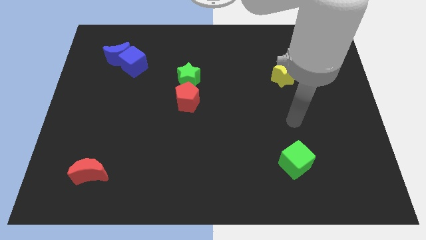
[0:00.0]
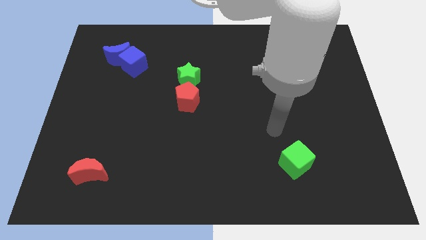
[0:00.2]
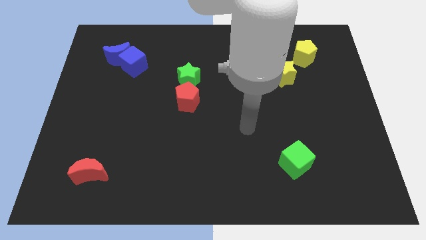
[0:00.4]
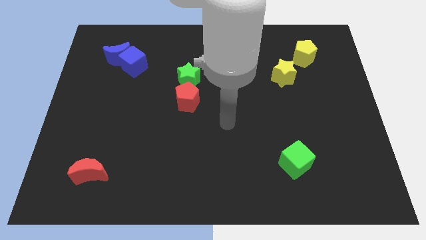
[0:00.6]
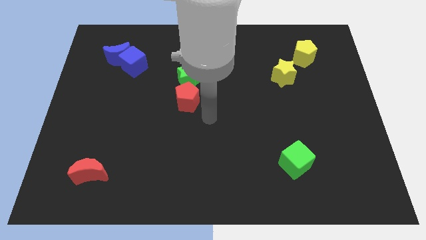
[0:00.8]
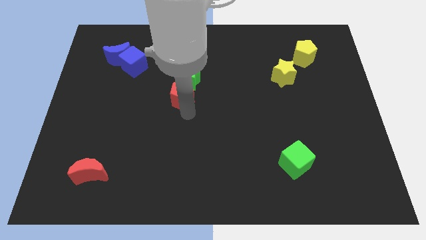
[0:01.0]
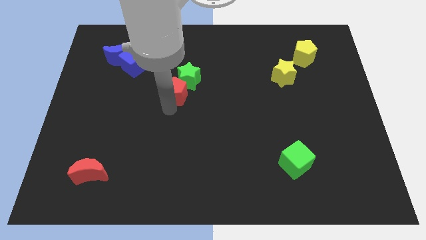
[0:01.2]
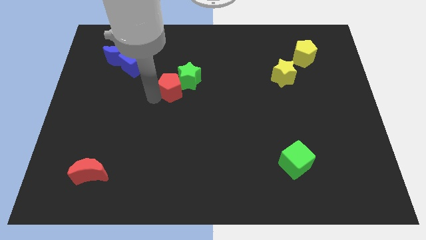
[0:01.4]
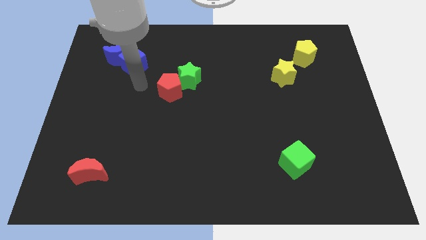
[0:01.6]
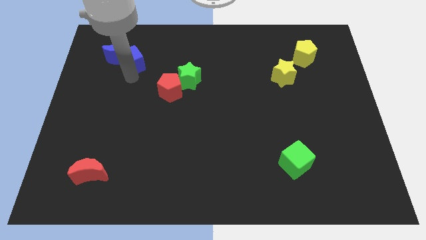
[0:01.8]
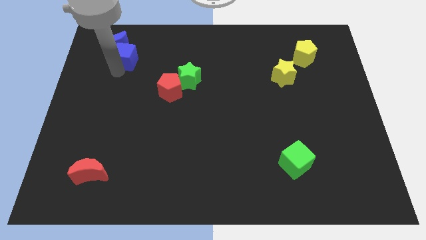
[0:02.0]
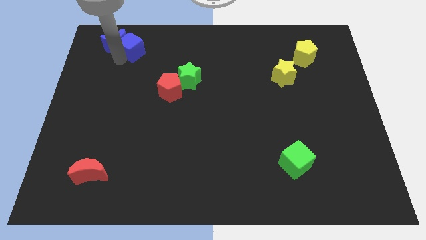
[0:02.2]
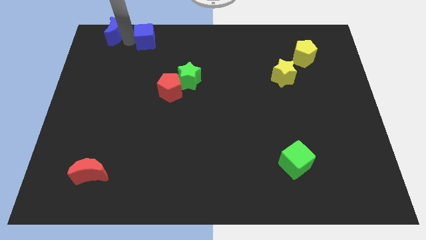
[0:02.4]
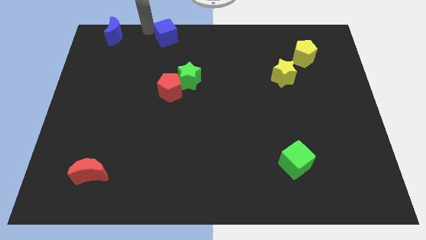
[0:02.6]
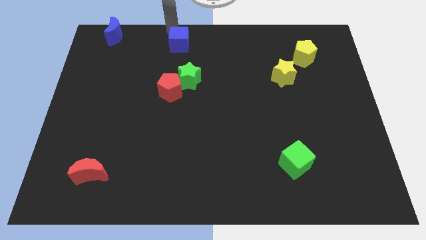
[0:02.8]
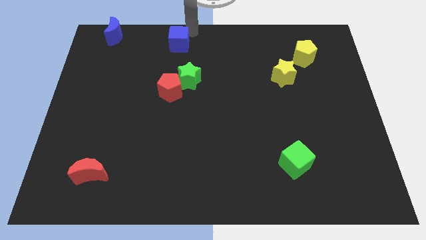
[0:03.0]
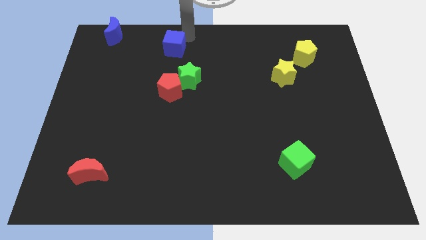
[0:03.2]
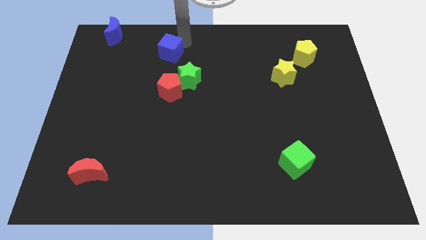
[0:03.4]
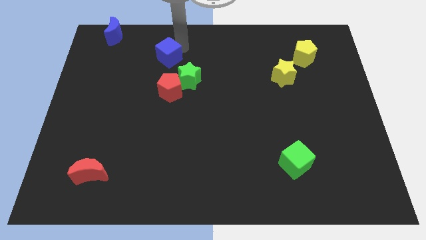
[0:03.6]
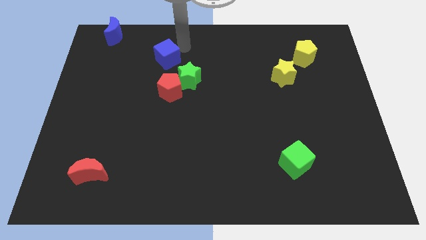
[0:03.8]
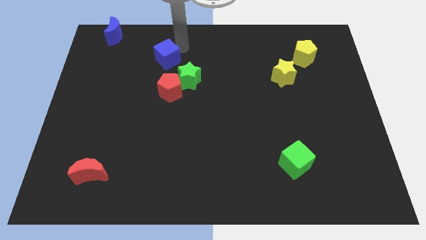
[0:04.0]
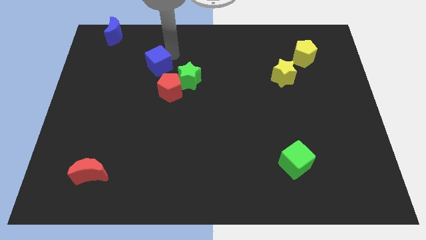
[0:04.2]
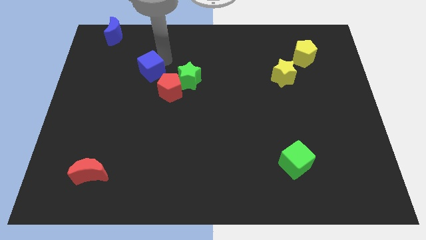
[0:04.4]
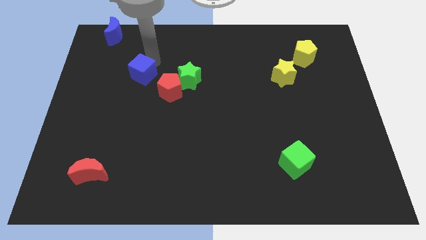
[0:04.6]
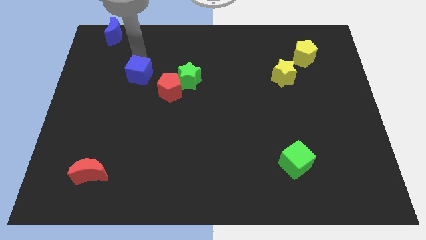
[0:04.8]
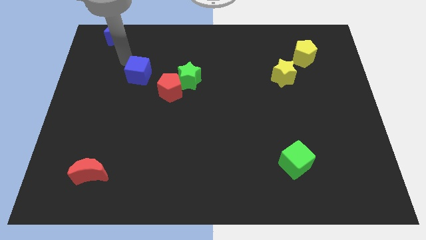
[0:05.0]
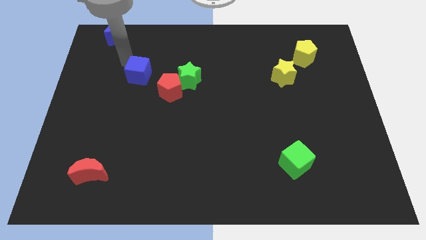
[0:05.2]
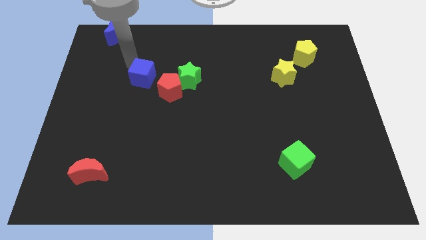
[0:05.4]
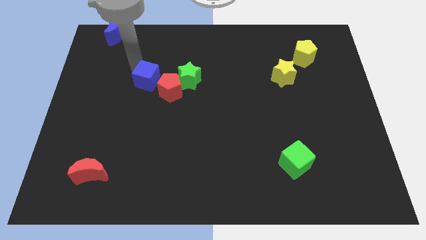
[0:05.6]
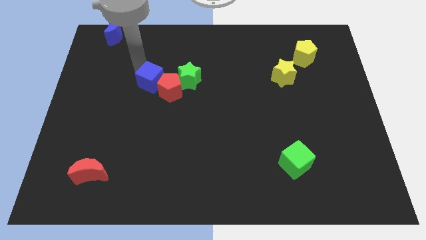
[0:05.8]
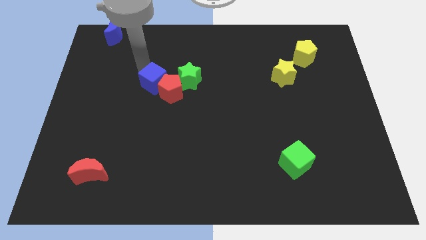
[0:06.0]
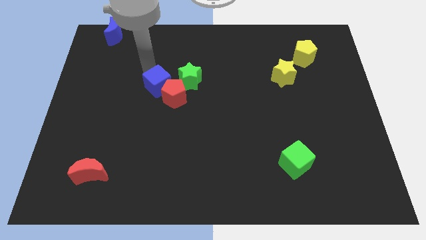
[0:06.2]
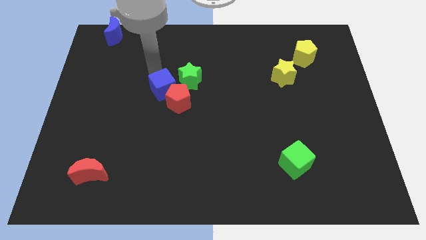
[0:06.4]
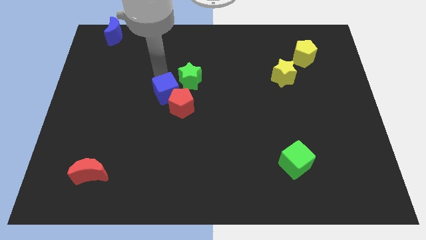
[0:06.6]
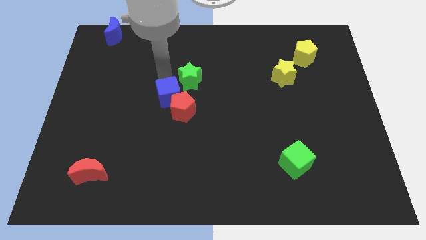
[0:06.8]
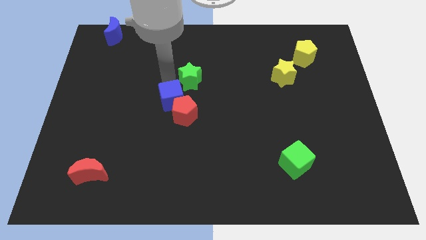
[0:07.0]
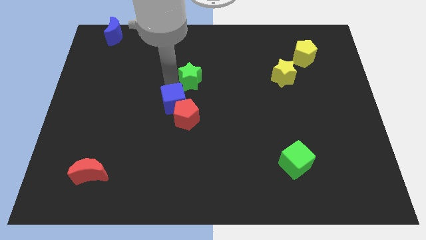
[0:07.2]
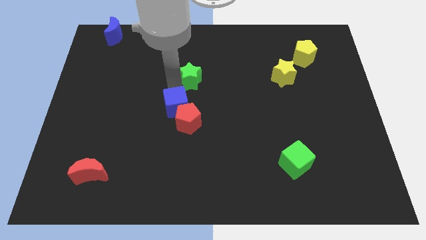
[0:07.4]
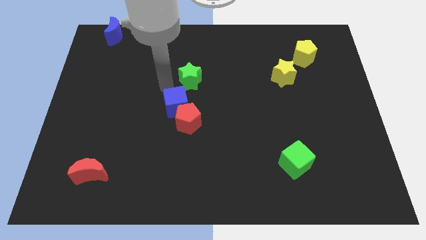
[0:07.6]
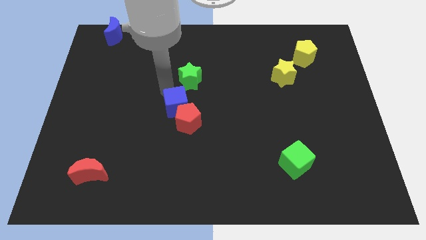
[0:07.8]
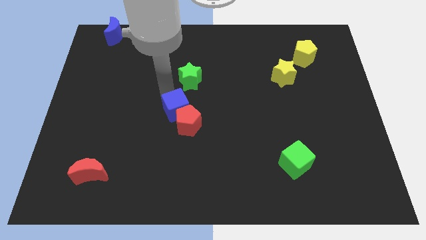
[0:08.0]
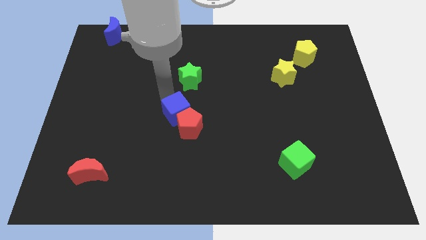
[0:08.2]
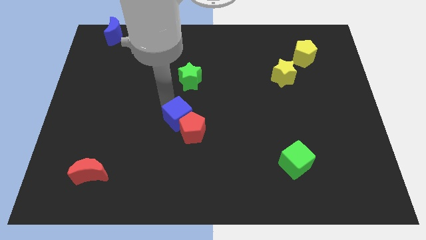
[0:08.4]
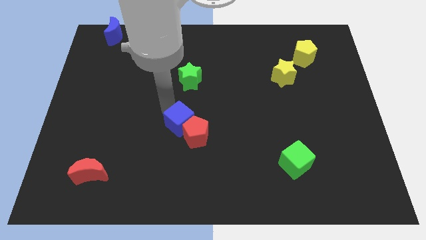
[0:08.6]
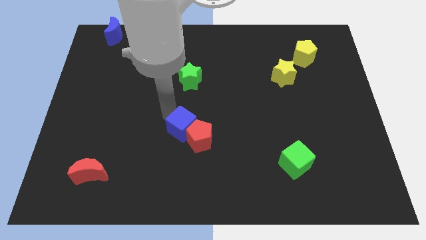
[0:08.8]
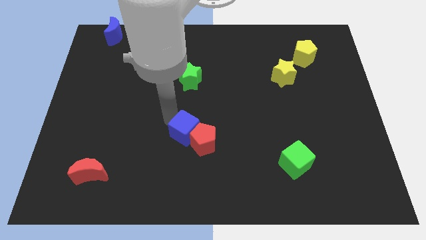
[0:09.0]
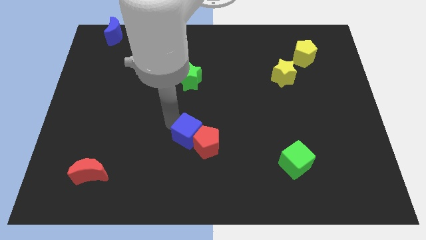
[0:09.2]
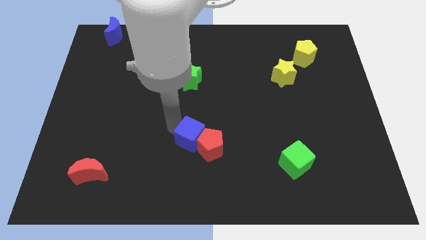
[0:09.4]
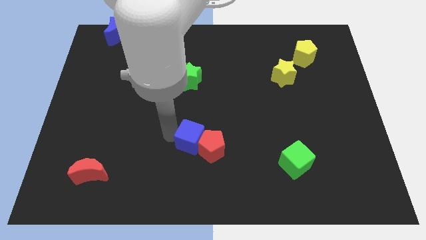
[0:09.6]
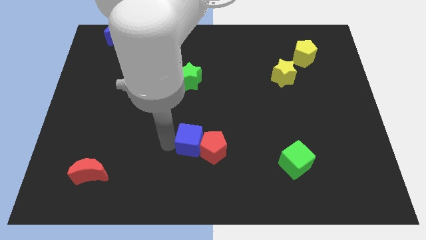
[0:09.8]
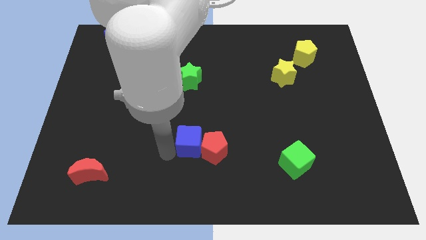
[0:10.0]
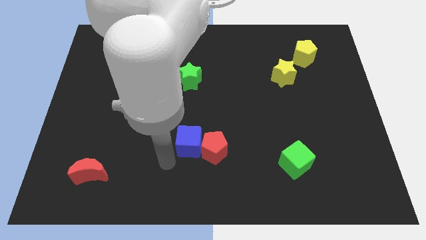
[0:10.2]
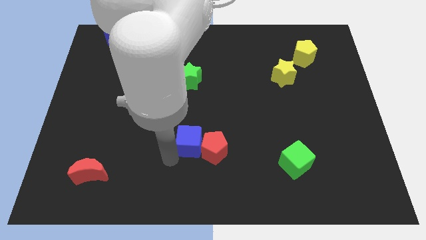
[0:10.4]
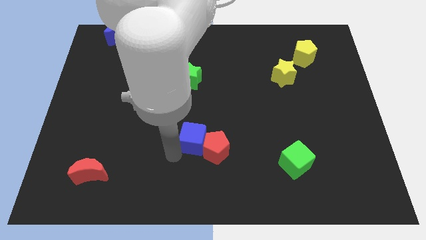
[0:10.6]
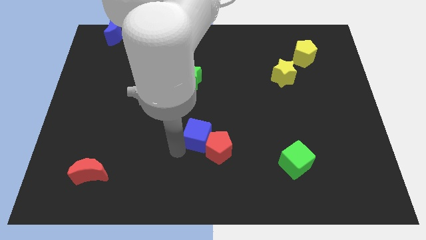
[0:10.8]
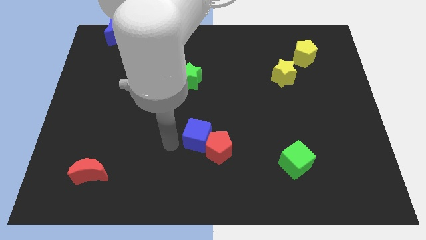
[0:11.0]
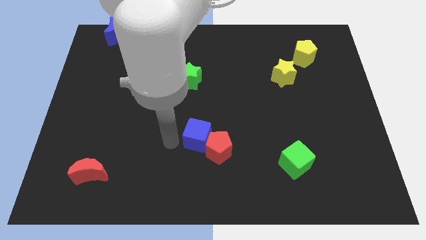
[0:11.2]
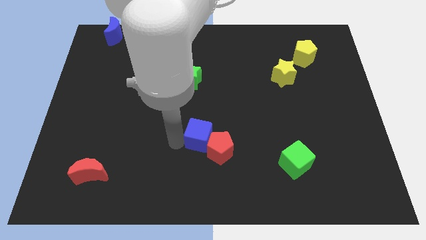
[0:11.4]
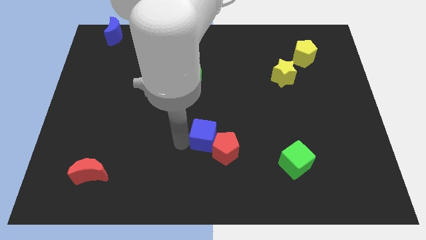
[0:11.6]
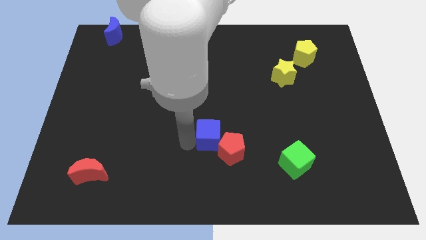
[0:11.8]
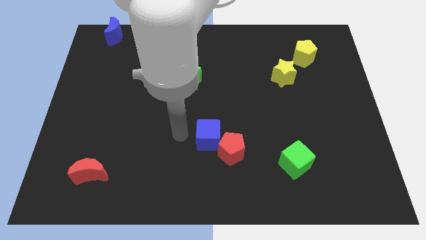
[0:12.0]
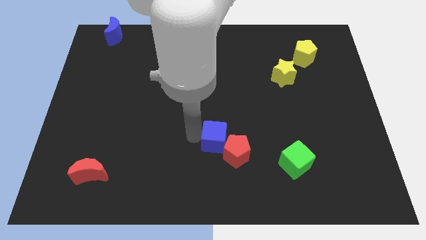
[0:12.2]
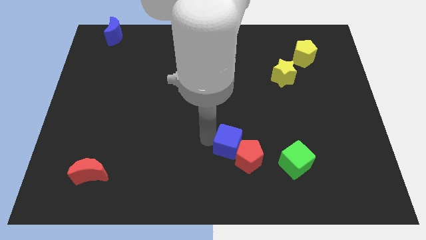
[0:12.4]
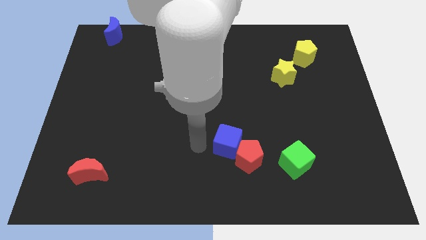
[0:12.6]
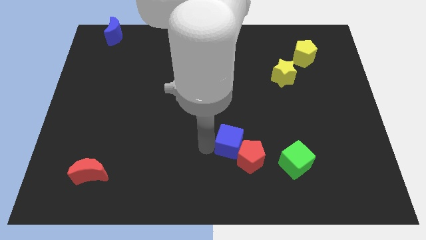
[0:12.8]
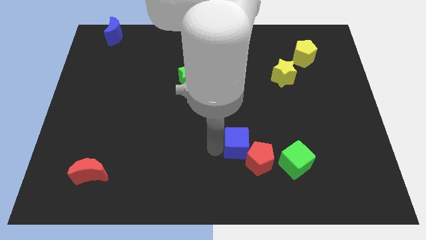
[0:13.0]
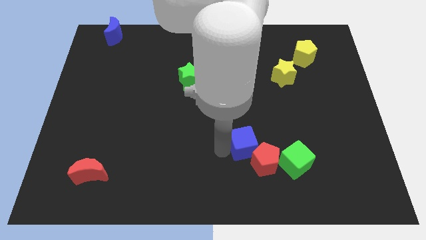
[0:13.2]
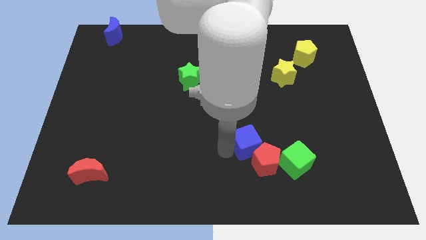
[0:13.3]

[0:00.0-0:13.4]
move the blue cube to the top left side of the green cube

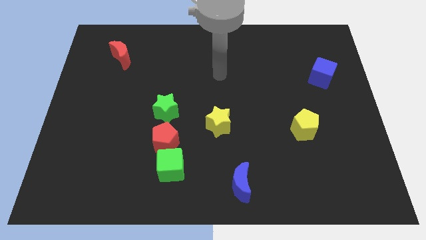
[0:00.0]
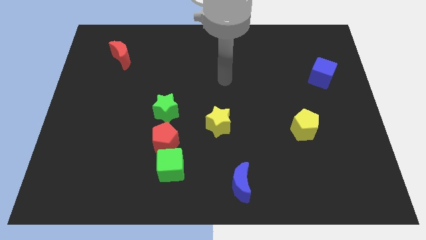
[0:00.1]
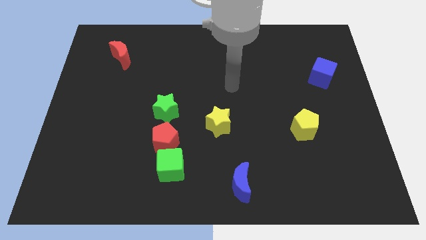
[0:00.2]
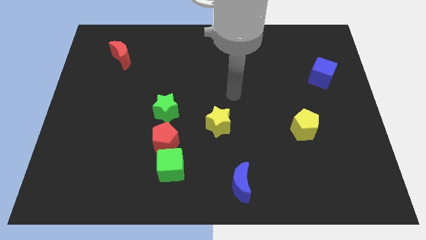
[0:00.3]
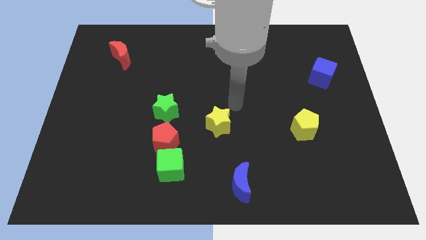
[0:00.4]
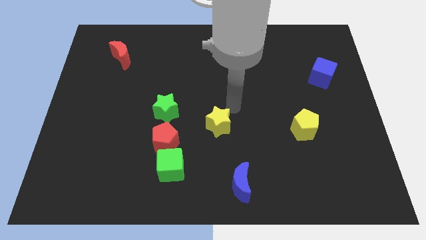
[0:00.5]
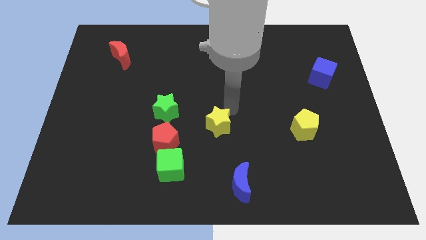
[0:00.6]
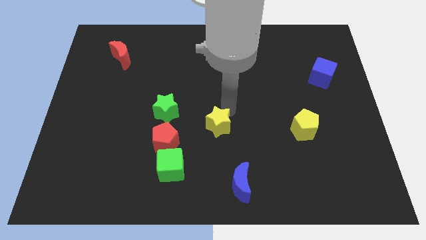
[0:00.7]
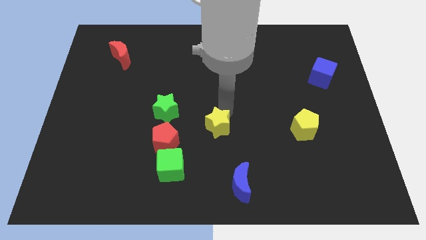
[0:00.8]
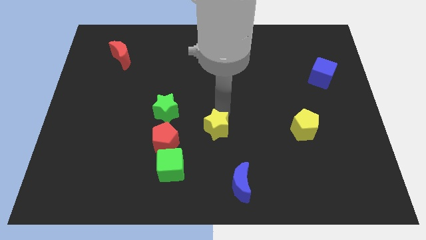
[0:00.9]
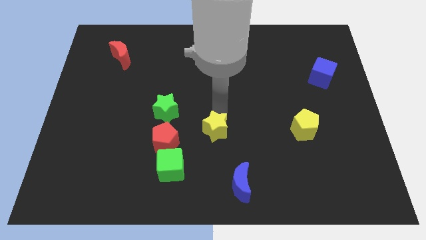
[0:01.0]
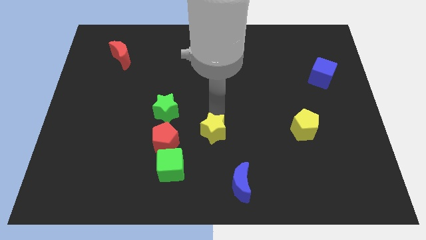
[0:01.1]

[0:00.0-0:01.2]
put the yellow star diagonally up and to the right of the green cube
